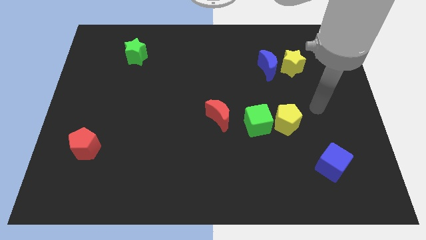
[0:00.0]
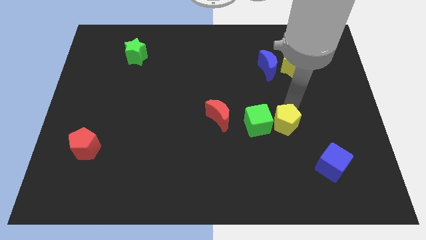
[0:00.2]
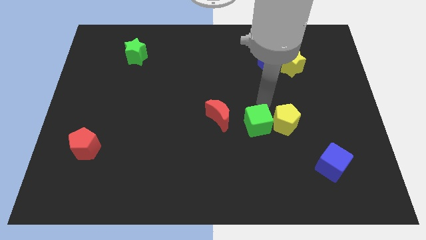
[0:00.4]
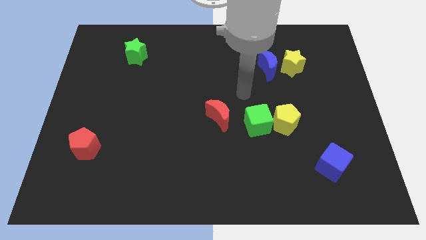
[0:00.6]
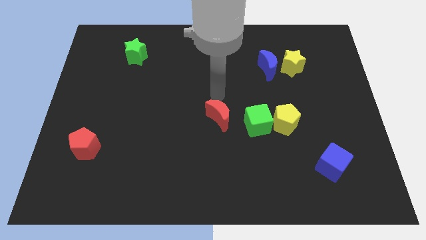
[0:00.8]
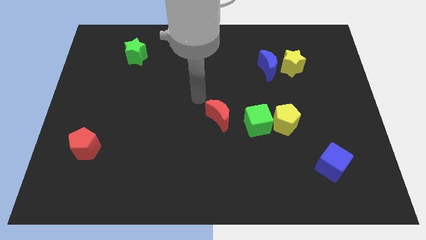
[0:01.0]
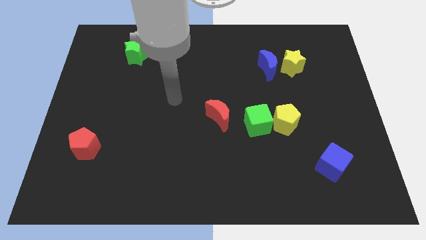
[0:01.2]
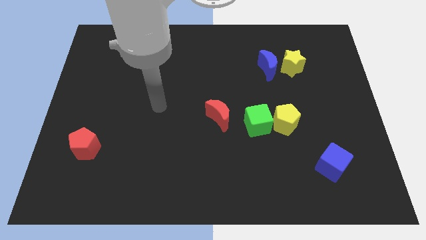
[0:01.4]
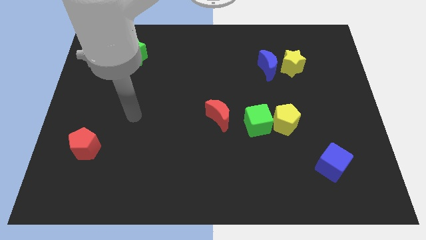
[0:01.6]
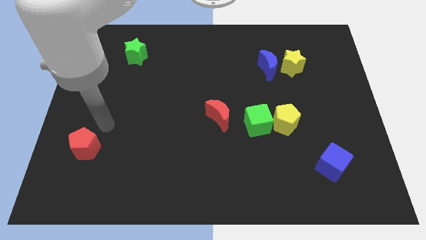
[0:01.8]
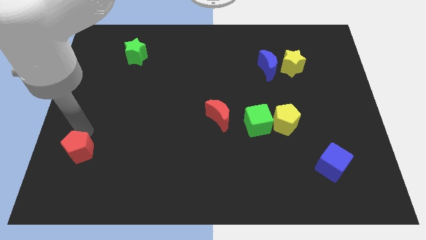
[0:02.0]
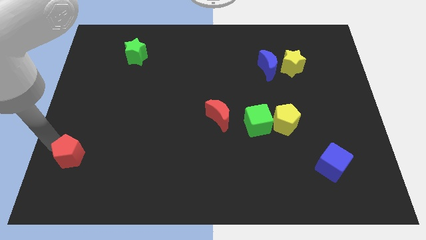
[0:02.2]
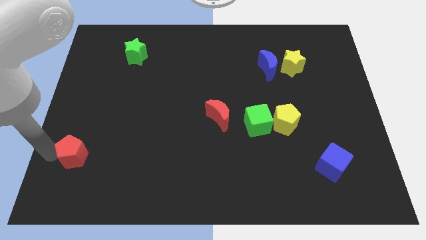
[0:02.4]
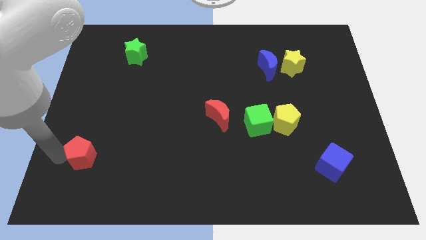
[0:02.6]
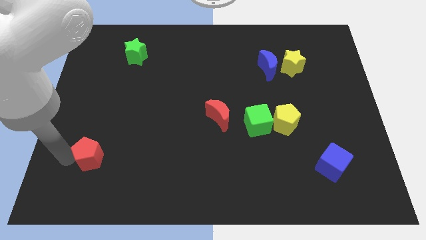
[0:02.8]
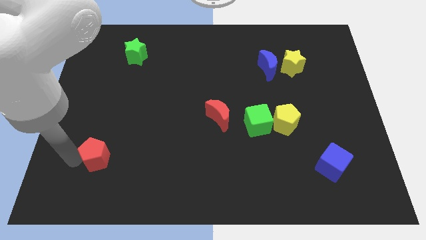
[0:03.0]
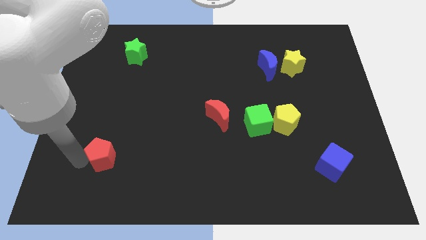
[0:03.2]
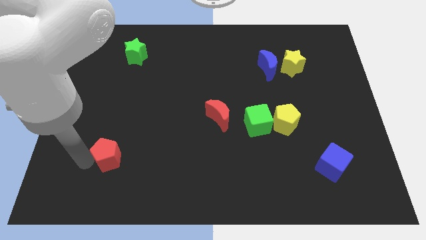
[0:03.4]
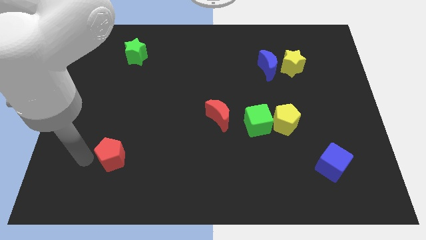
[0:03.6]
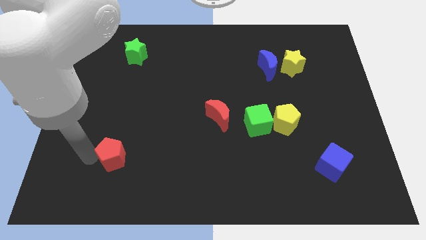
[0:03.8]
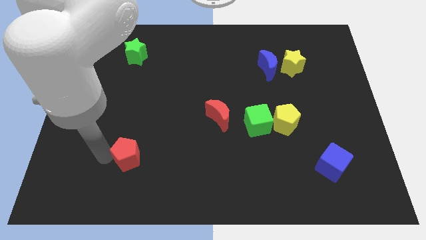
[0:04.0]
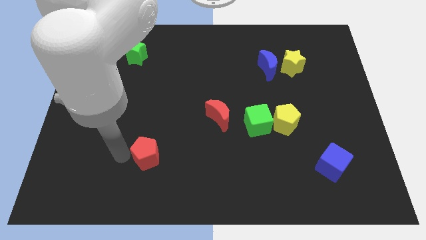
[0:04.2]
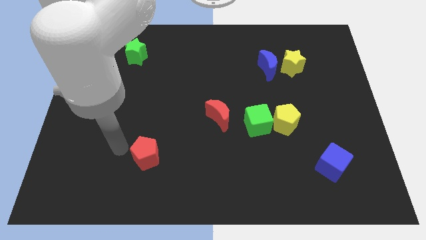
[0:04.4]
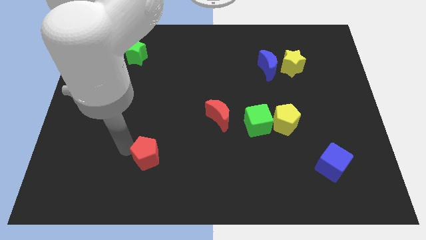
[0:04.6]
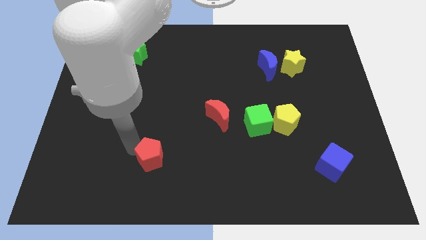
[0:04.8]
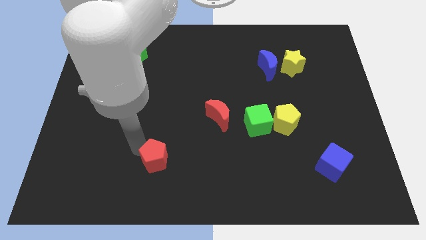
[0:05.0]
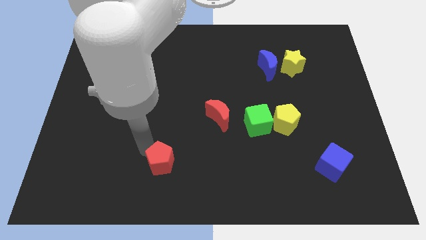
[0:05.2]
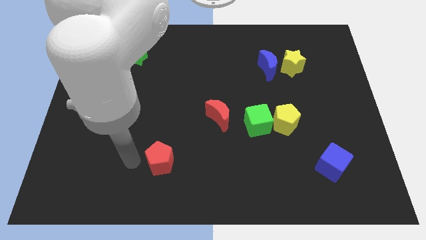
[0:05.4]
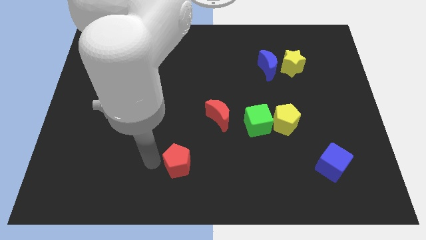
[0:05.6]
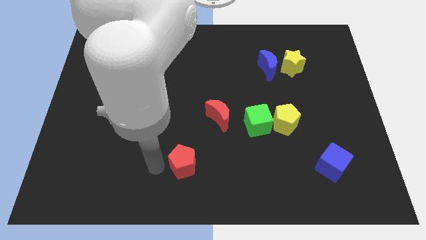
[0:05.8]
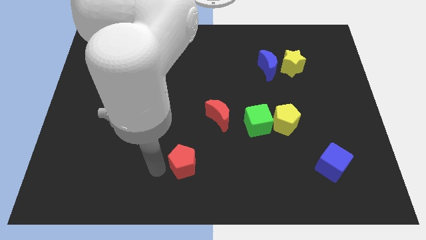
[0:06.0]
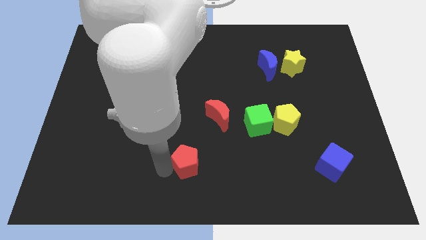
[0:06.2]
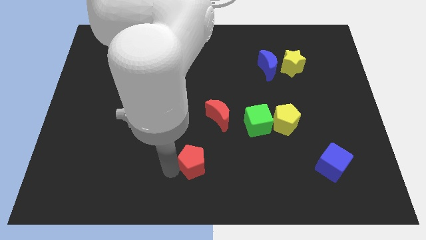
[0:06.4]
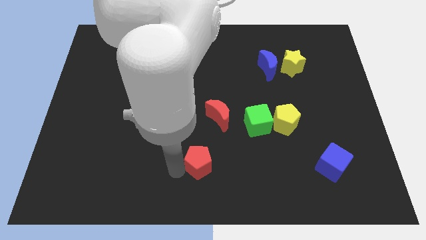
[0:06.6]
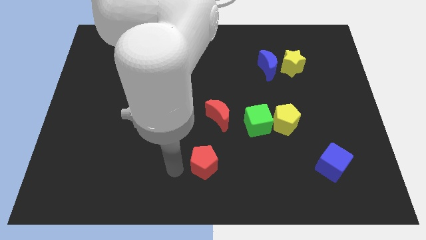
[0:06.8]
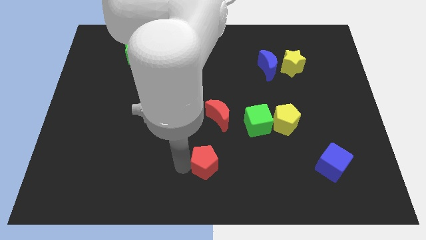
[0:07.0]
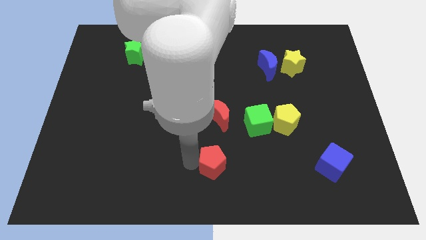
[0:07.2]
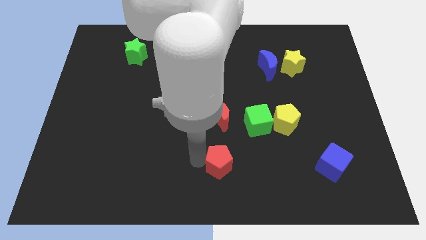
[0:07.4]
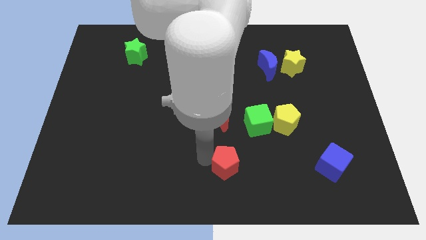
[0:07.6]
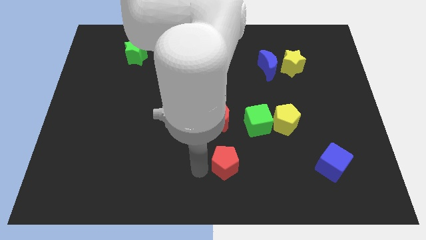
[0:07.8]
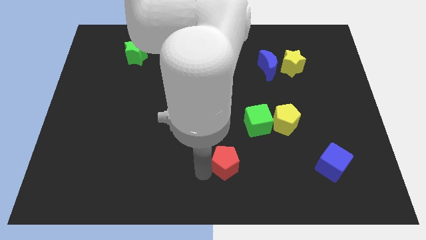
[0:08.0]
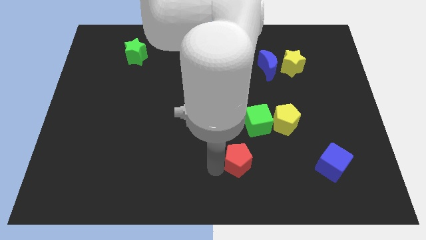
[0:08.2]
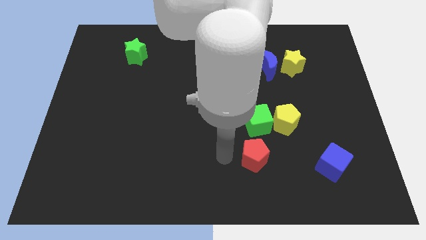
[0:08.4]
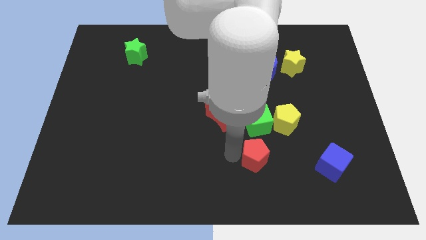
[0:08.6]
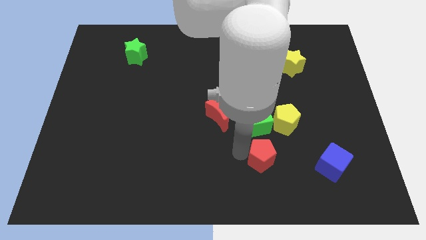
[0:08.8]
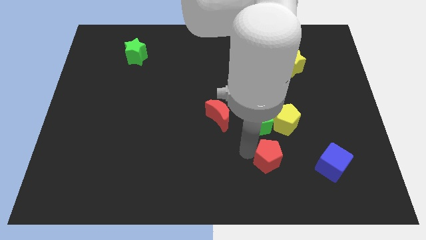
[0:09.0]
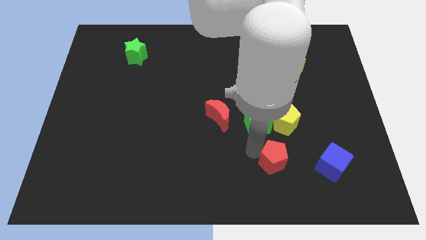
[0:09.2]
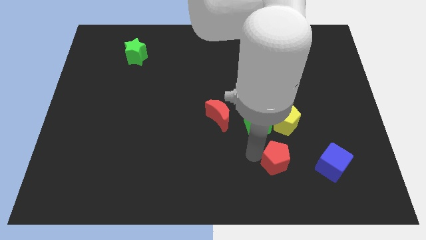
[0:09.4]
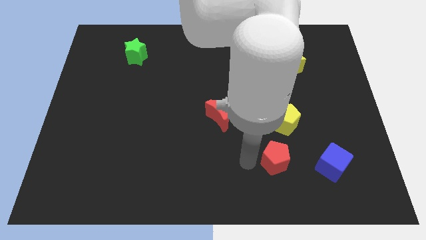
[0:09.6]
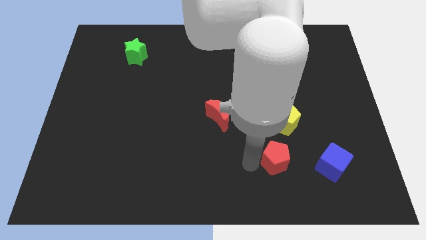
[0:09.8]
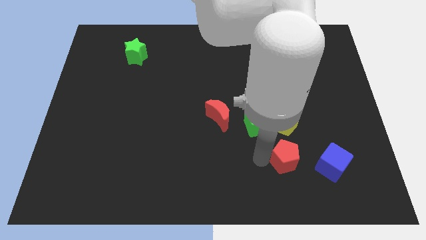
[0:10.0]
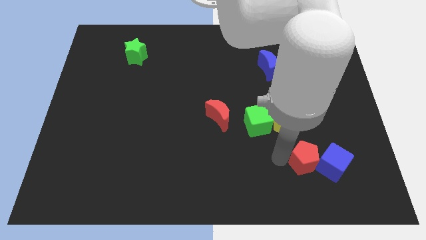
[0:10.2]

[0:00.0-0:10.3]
move the red pentagon next to the blue cube

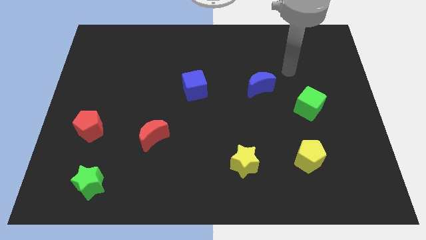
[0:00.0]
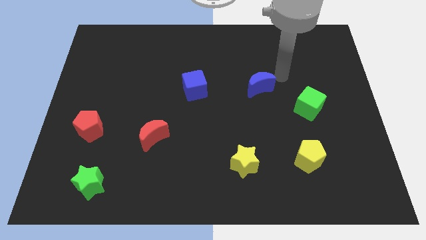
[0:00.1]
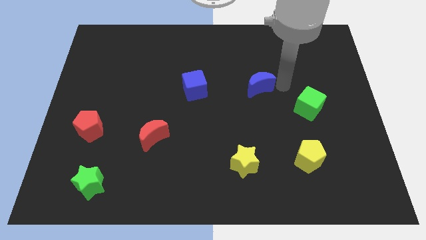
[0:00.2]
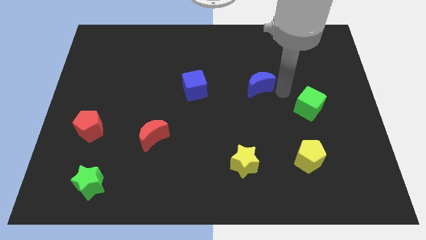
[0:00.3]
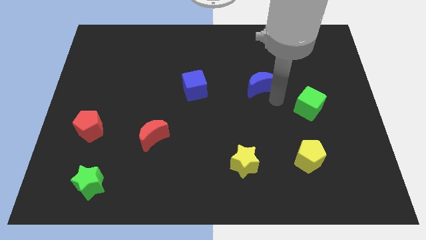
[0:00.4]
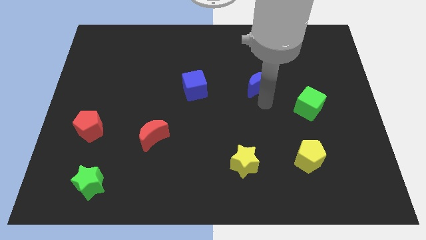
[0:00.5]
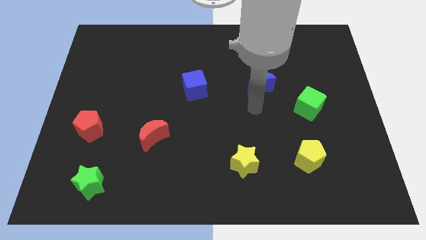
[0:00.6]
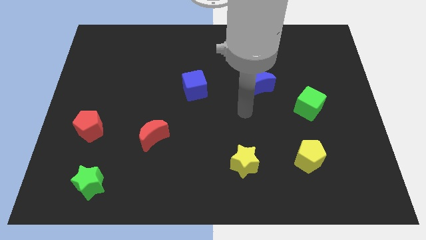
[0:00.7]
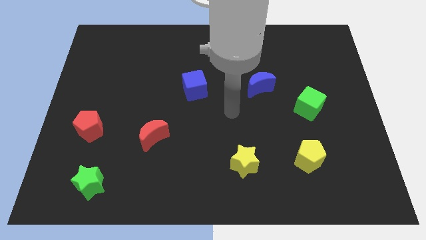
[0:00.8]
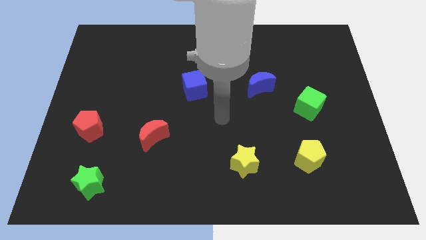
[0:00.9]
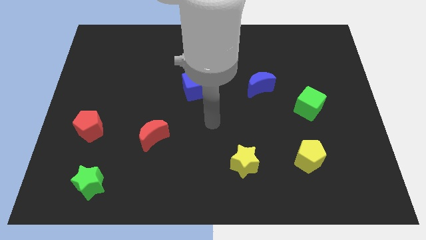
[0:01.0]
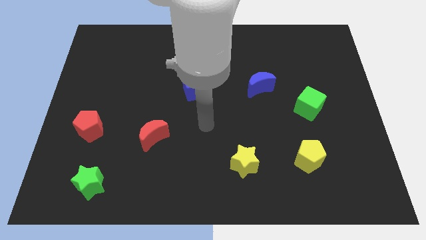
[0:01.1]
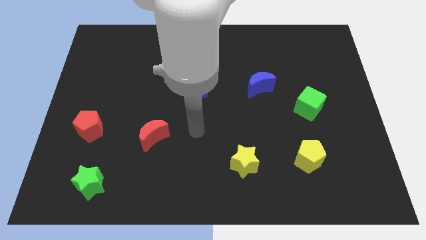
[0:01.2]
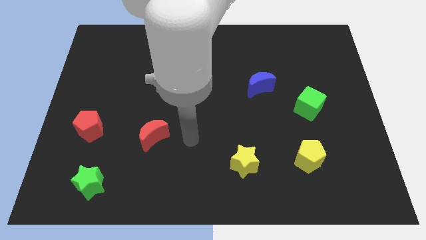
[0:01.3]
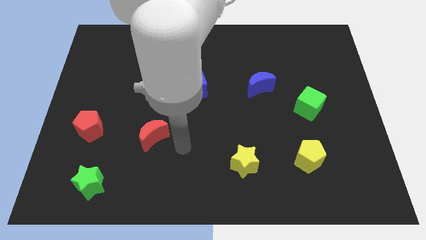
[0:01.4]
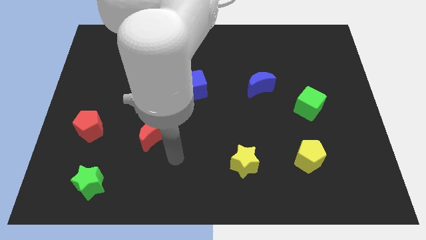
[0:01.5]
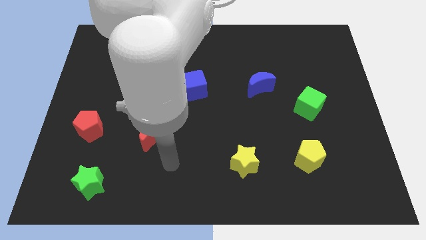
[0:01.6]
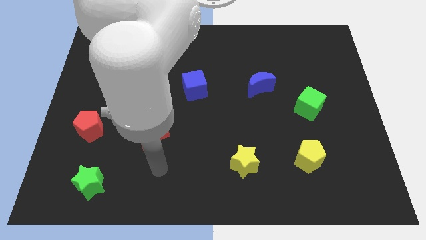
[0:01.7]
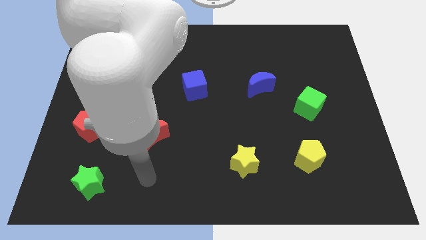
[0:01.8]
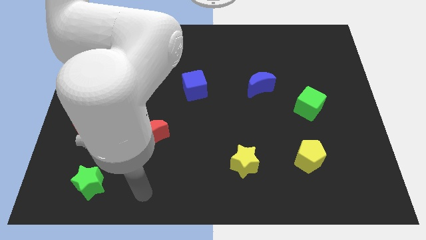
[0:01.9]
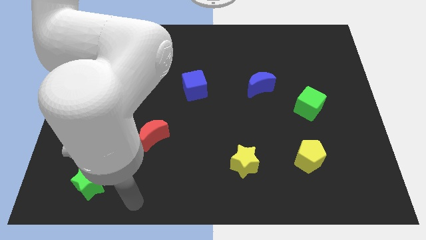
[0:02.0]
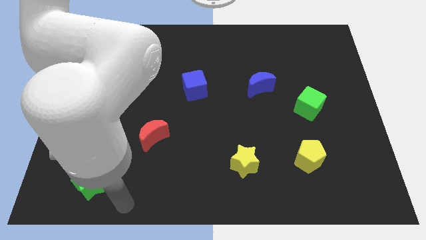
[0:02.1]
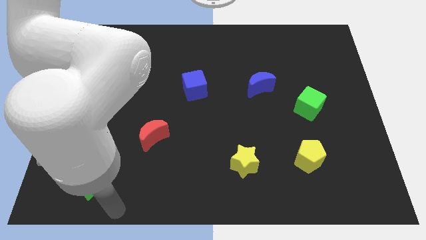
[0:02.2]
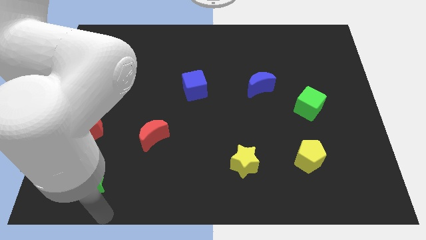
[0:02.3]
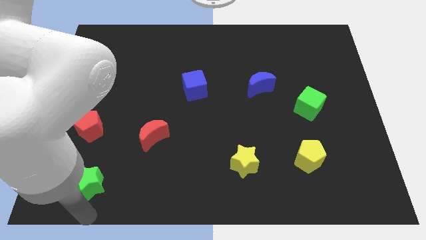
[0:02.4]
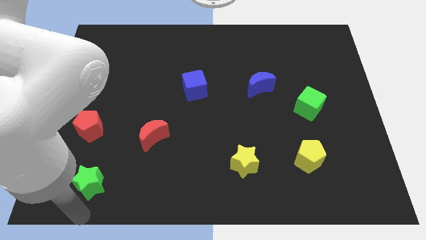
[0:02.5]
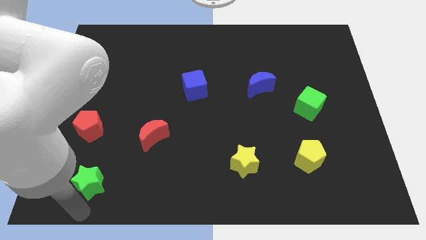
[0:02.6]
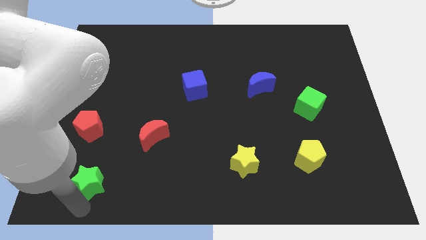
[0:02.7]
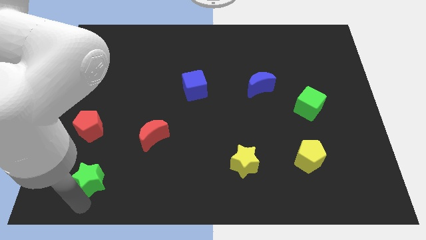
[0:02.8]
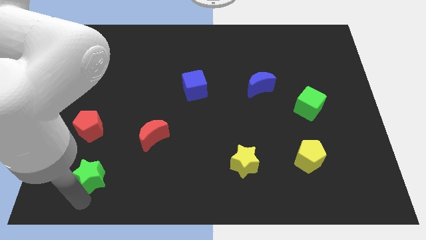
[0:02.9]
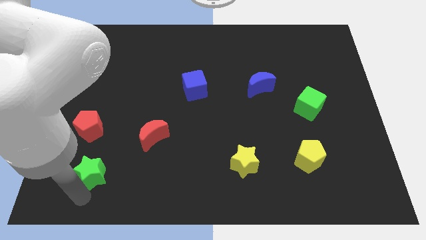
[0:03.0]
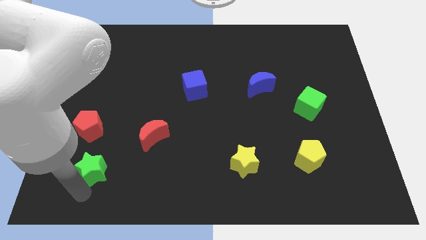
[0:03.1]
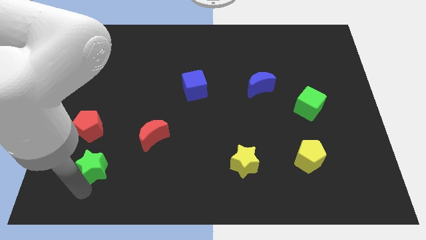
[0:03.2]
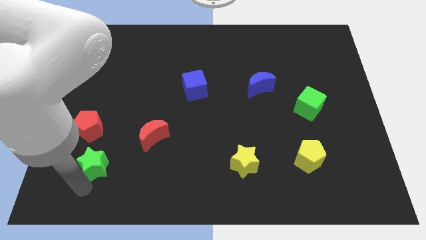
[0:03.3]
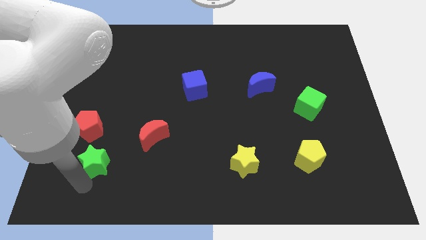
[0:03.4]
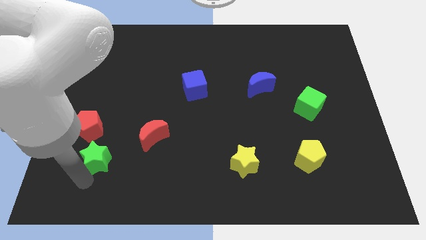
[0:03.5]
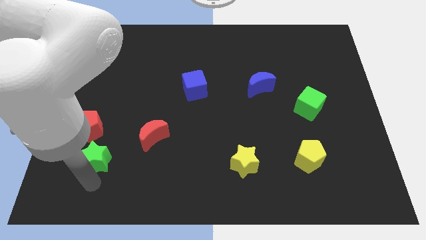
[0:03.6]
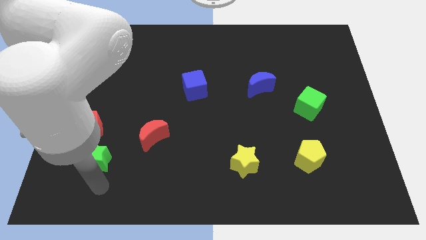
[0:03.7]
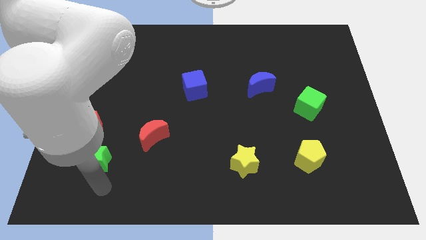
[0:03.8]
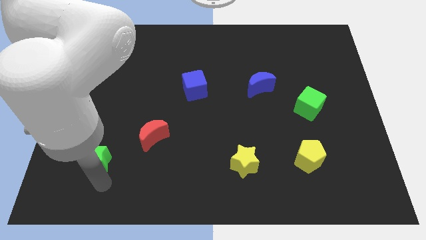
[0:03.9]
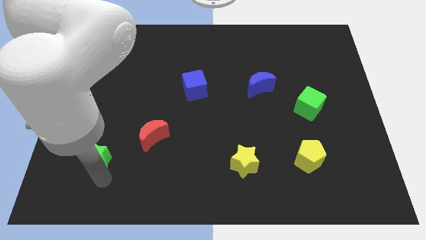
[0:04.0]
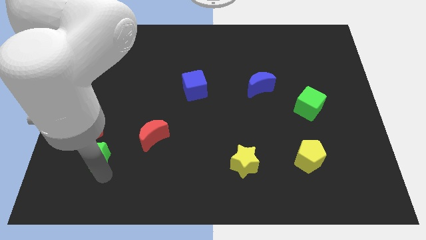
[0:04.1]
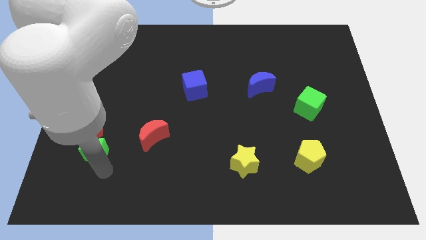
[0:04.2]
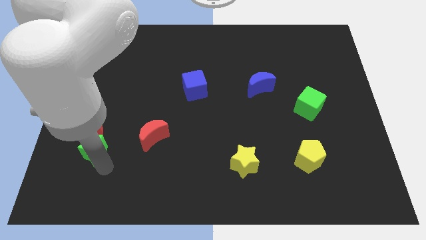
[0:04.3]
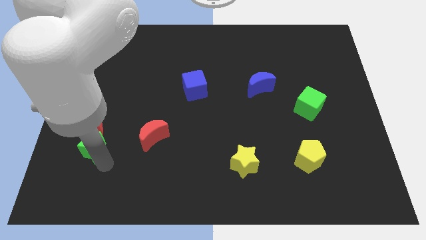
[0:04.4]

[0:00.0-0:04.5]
slide the green star to the red pentagon
